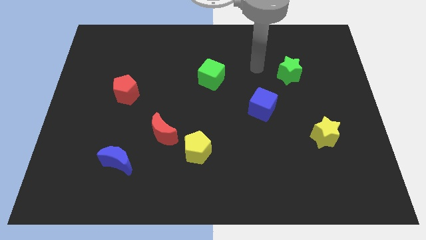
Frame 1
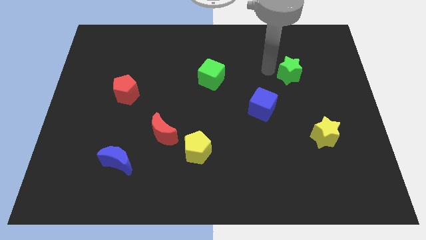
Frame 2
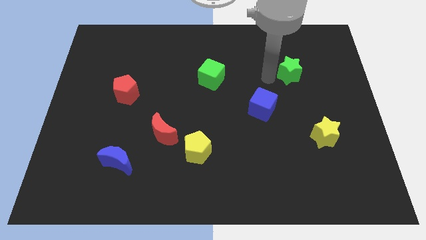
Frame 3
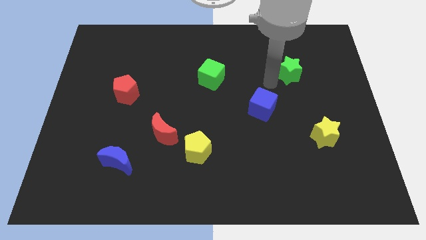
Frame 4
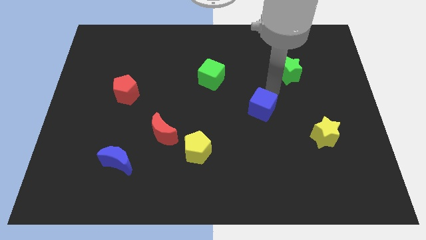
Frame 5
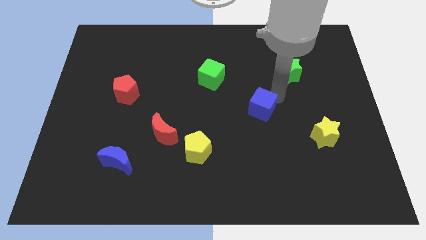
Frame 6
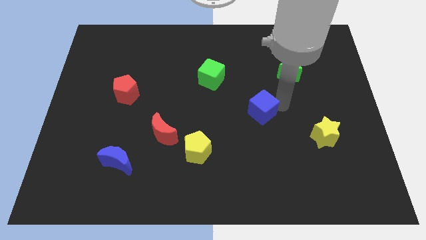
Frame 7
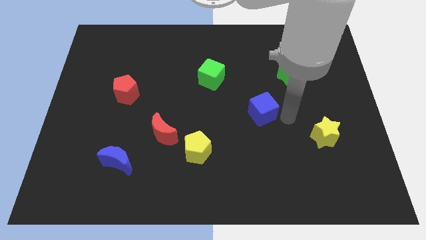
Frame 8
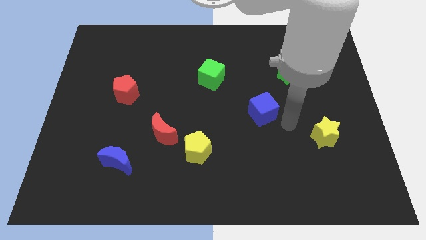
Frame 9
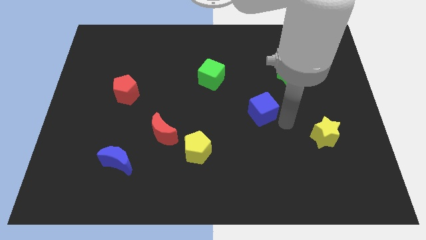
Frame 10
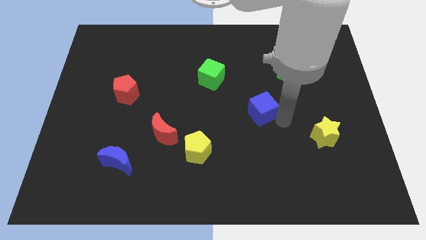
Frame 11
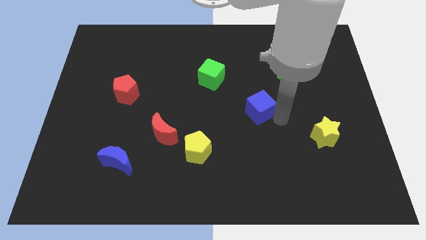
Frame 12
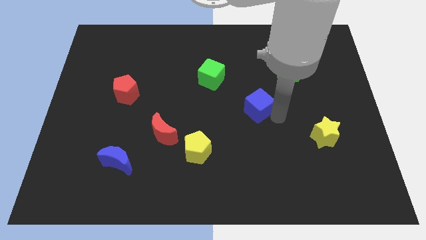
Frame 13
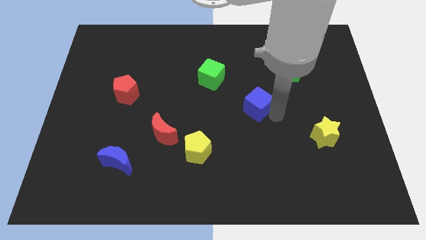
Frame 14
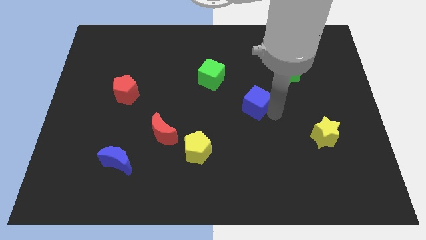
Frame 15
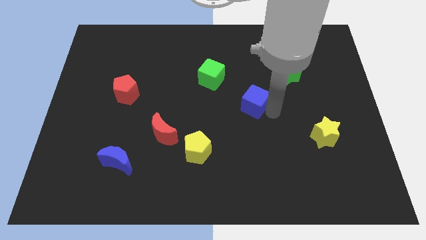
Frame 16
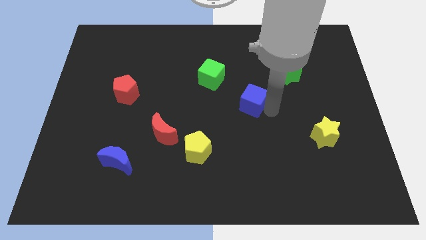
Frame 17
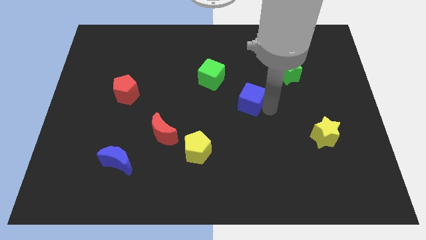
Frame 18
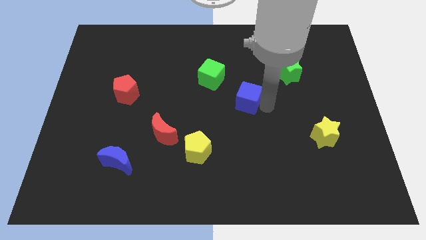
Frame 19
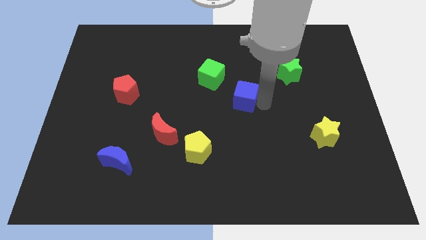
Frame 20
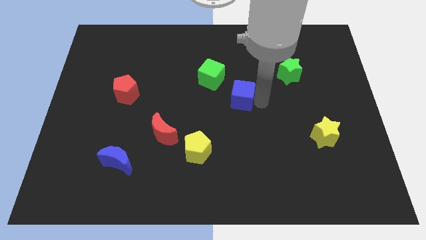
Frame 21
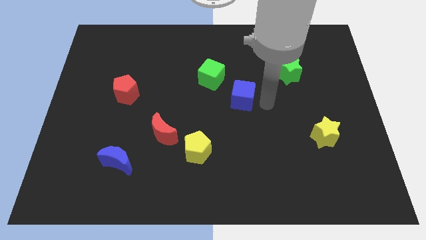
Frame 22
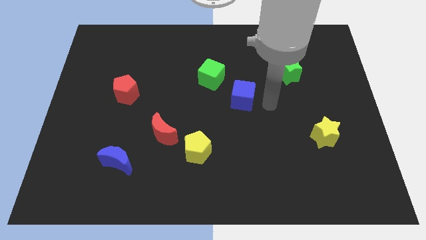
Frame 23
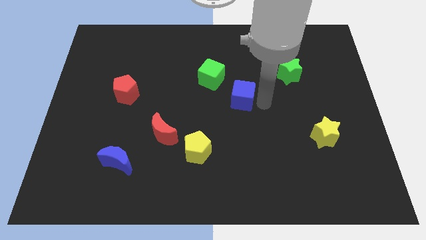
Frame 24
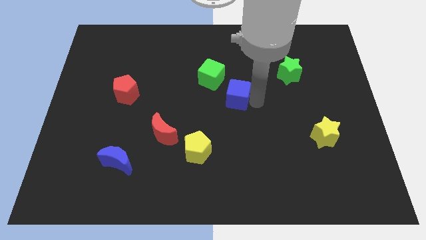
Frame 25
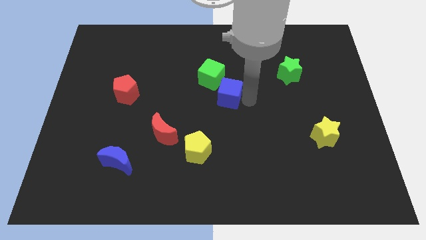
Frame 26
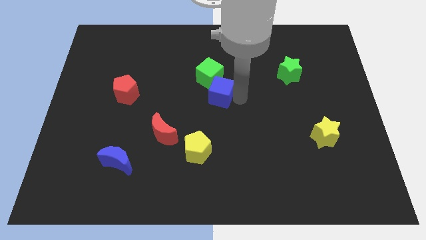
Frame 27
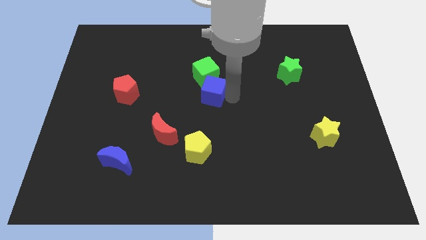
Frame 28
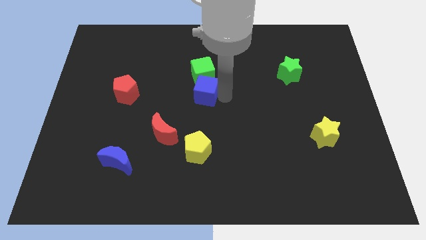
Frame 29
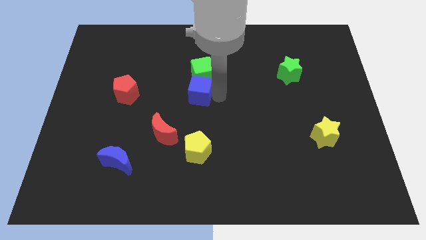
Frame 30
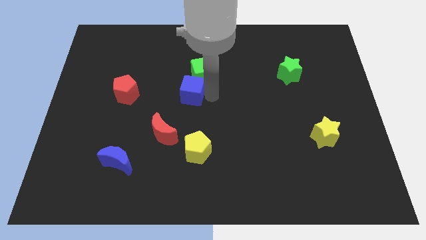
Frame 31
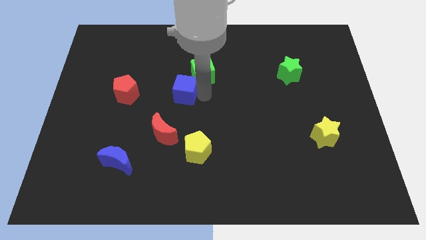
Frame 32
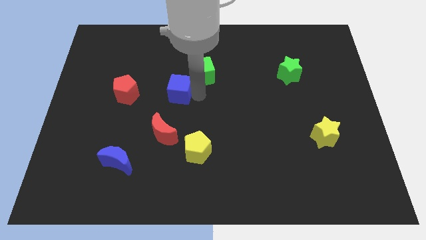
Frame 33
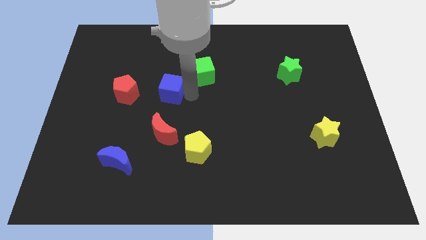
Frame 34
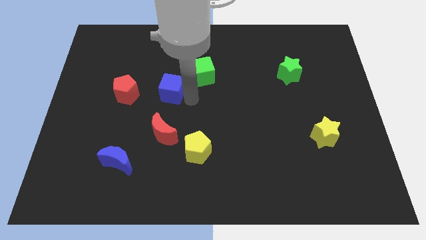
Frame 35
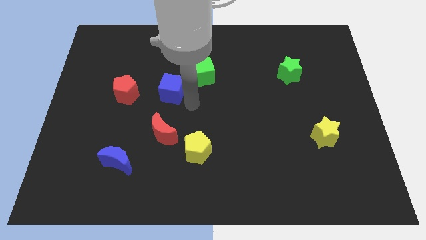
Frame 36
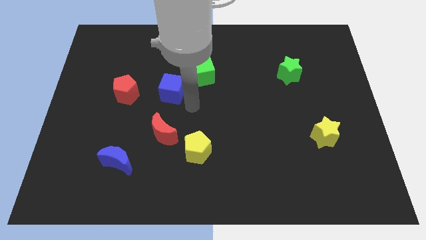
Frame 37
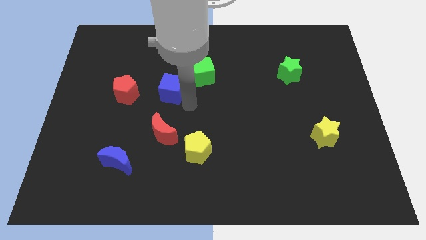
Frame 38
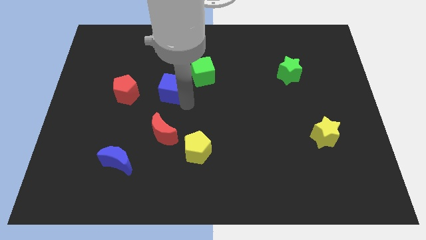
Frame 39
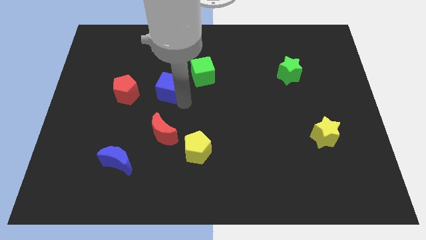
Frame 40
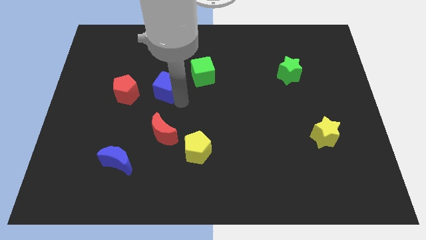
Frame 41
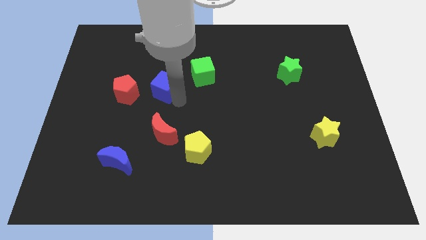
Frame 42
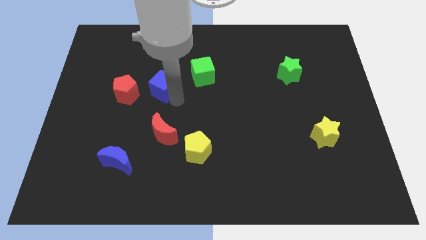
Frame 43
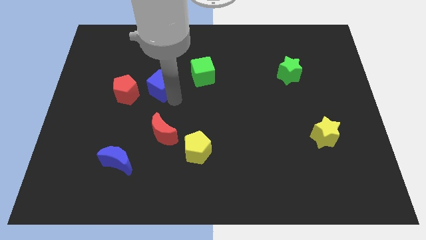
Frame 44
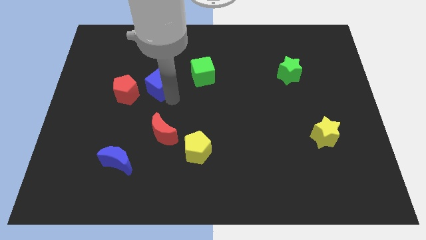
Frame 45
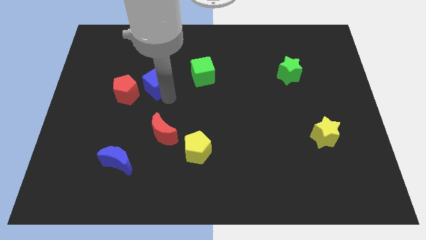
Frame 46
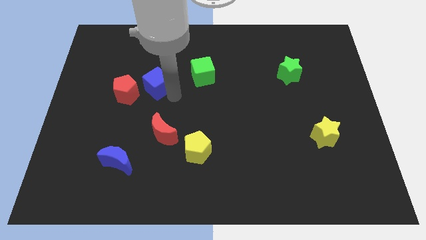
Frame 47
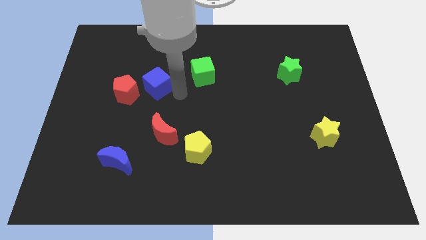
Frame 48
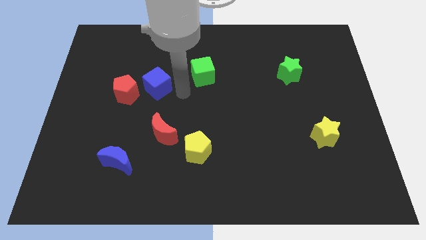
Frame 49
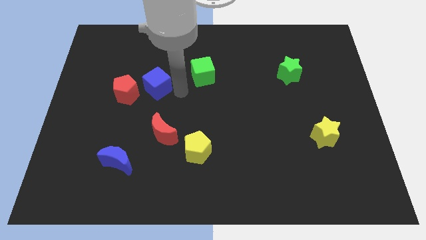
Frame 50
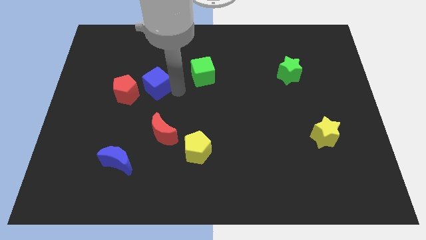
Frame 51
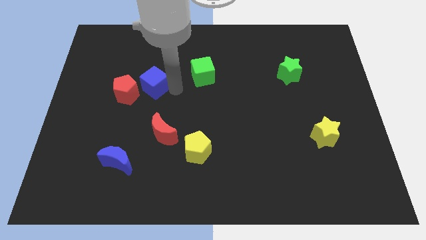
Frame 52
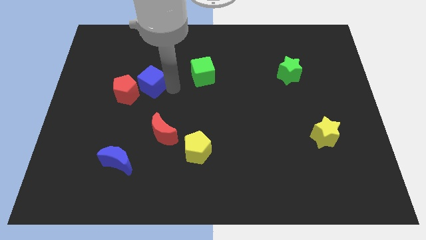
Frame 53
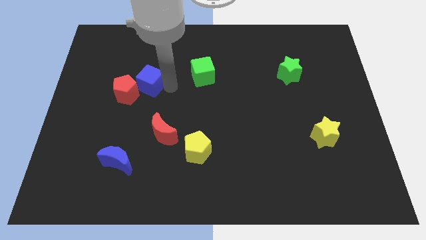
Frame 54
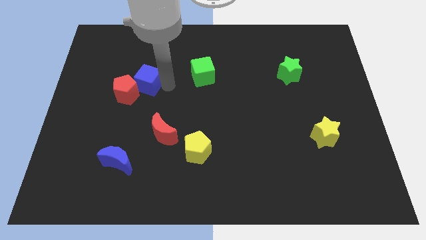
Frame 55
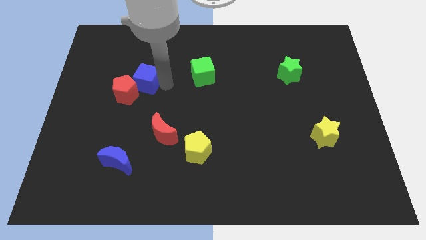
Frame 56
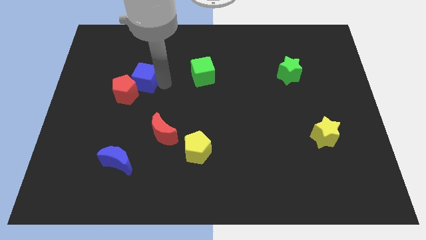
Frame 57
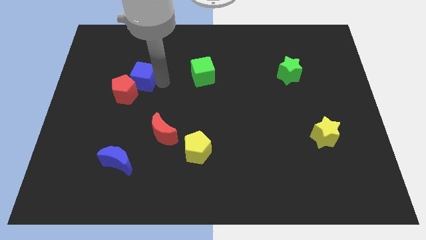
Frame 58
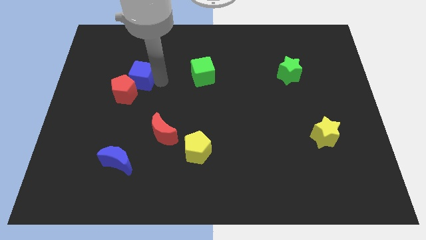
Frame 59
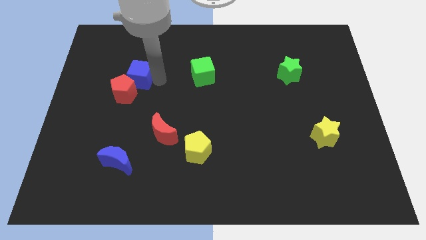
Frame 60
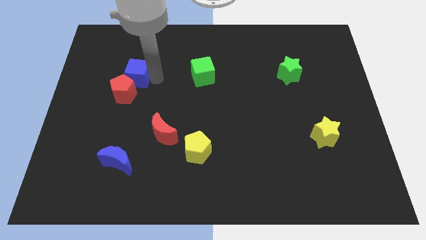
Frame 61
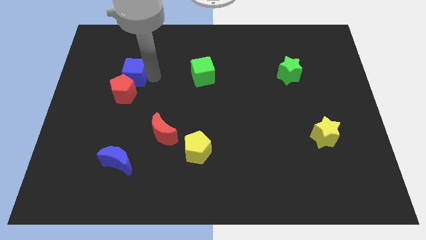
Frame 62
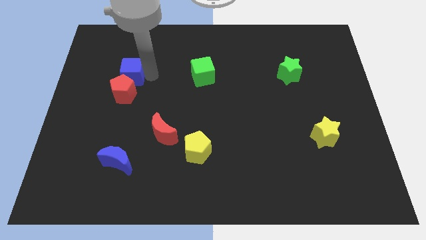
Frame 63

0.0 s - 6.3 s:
push the blue cube diagonally up and to the left of the red pentagon

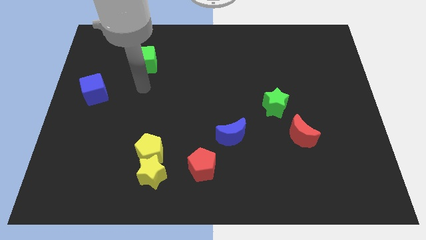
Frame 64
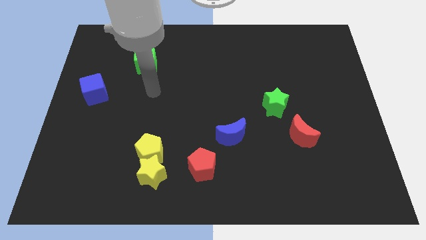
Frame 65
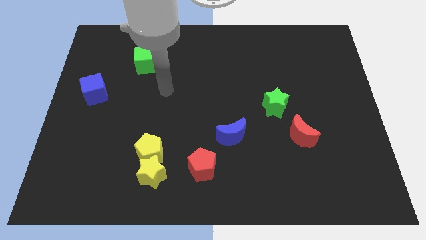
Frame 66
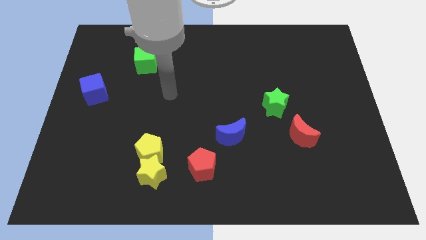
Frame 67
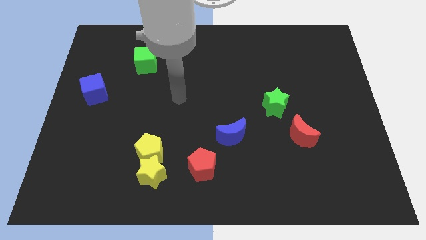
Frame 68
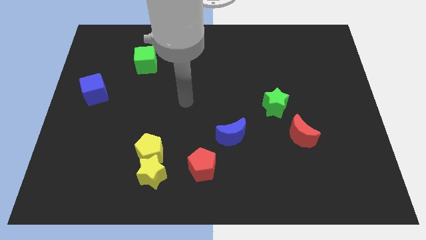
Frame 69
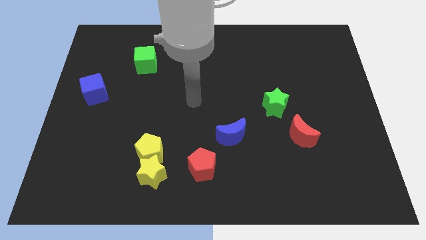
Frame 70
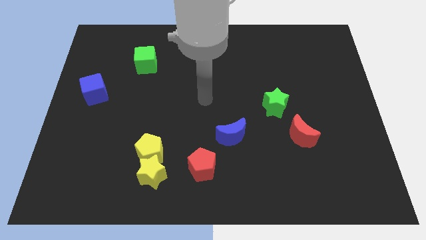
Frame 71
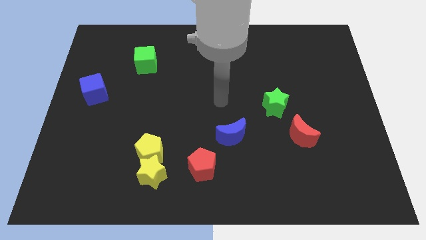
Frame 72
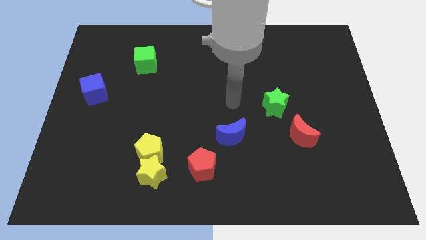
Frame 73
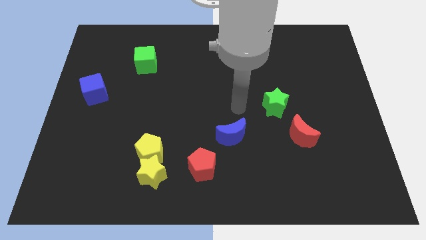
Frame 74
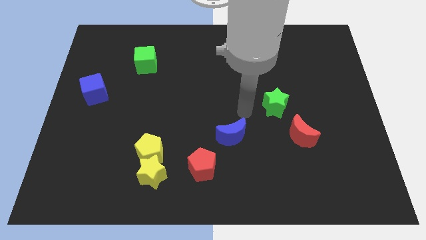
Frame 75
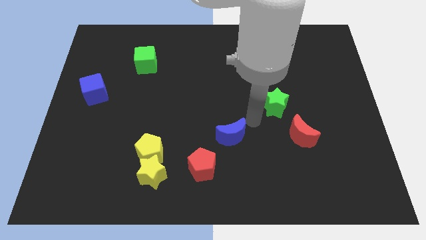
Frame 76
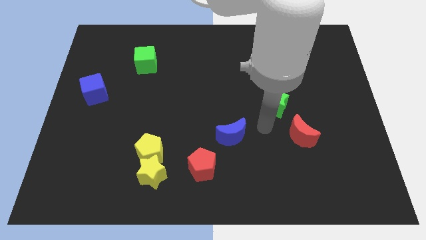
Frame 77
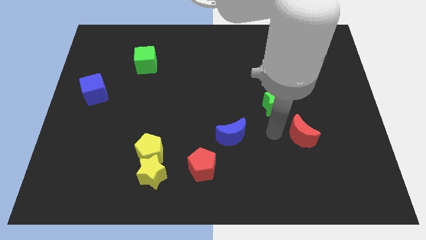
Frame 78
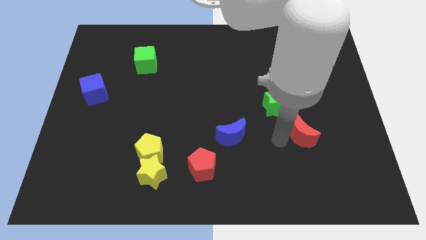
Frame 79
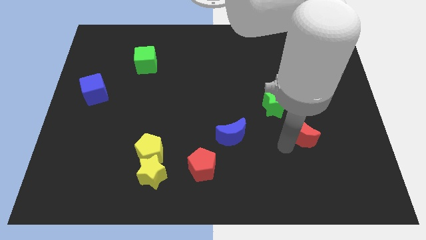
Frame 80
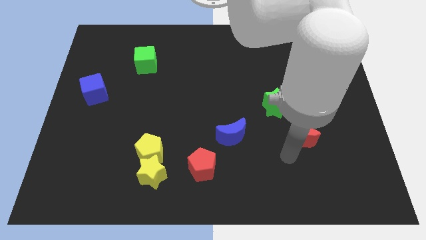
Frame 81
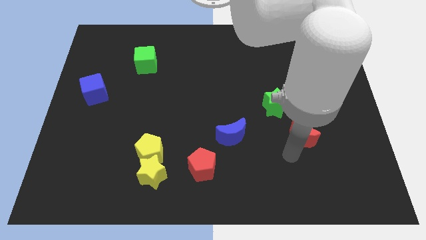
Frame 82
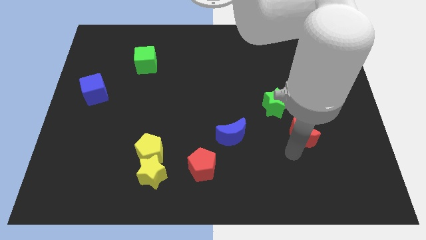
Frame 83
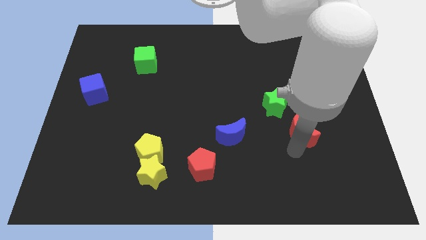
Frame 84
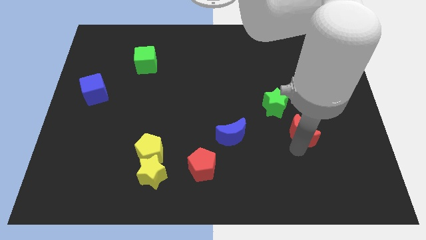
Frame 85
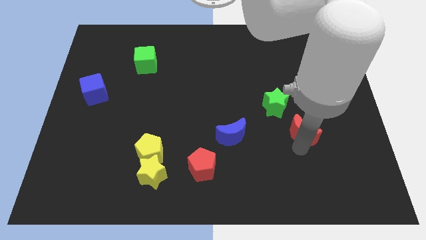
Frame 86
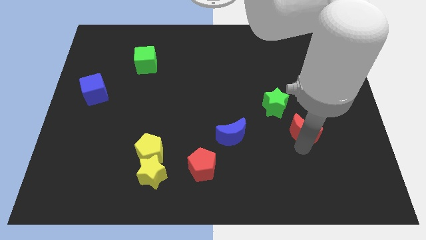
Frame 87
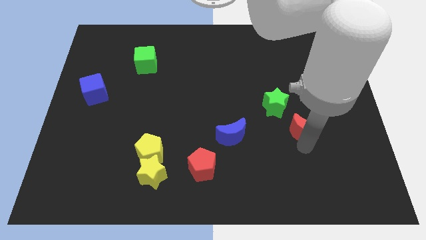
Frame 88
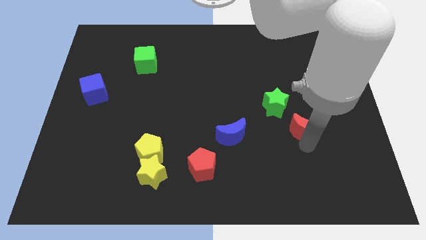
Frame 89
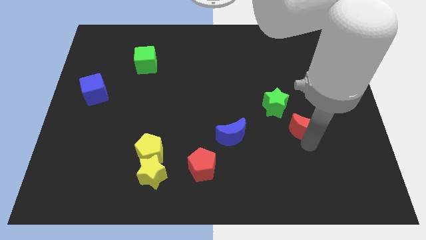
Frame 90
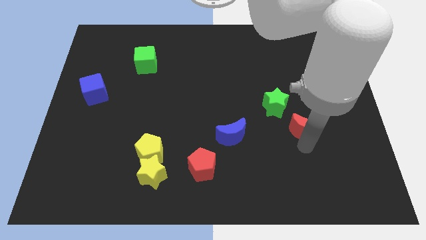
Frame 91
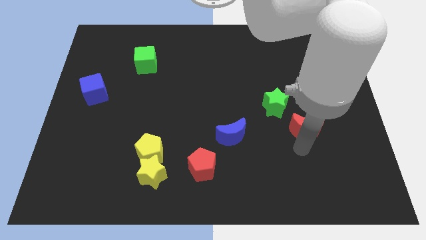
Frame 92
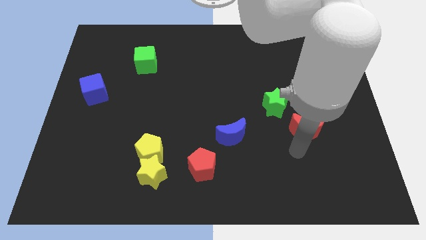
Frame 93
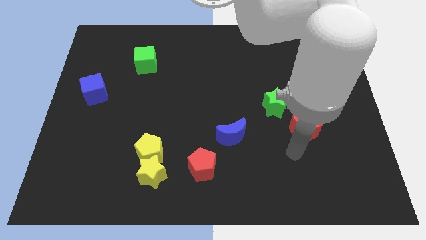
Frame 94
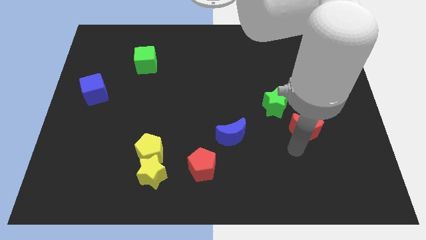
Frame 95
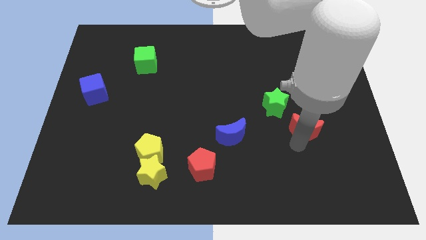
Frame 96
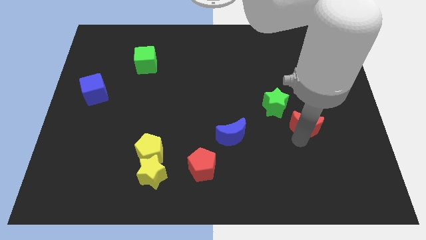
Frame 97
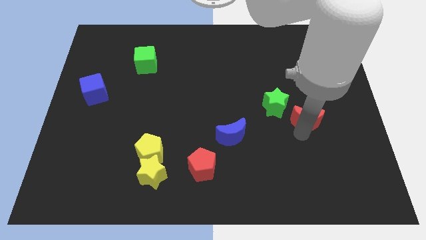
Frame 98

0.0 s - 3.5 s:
slide the red moon right of the green star
